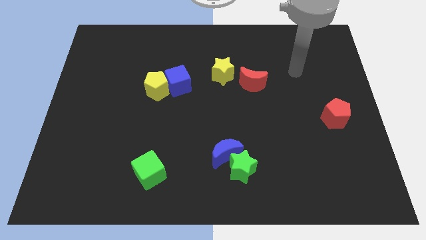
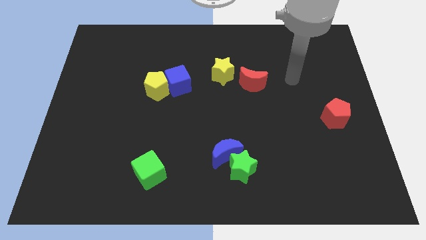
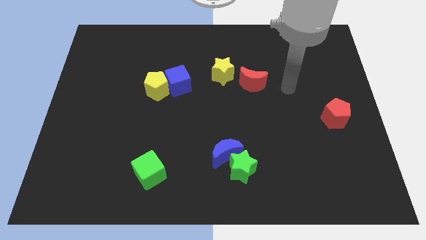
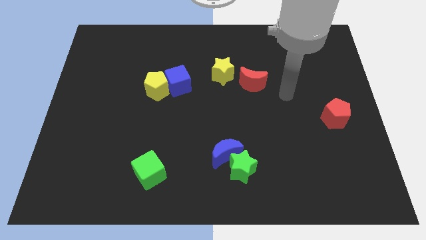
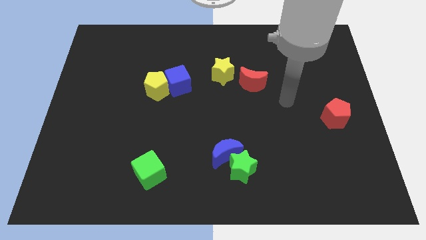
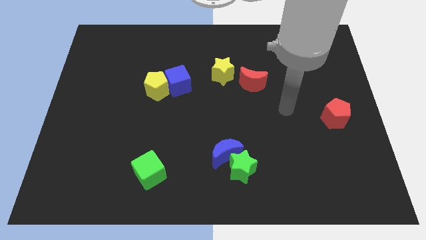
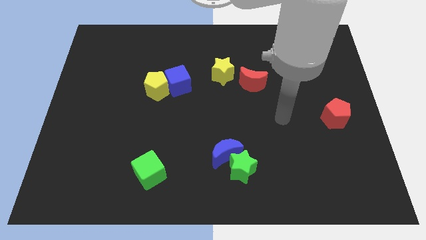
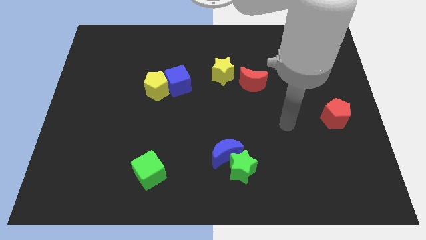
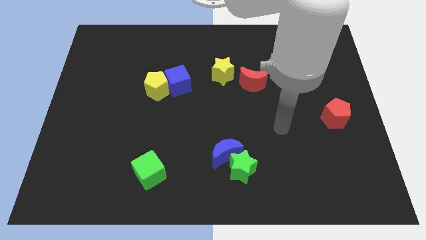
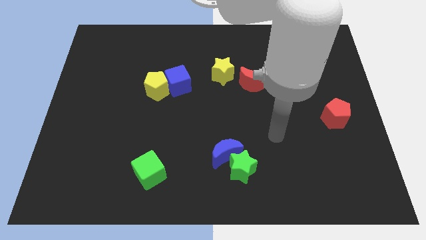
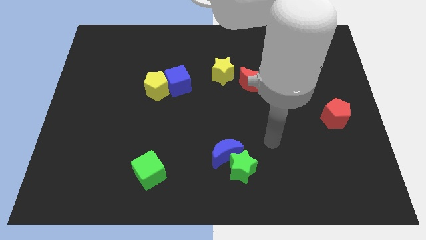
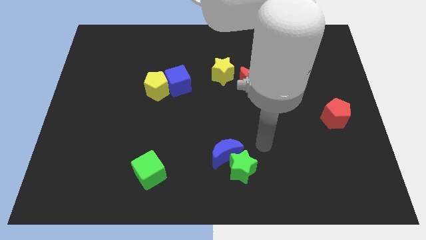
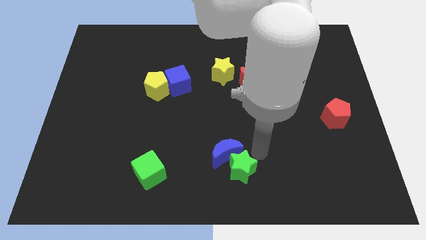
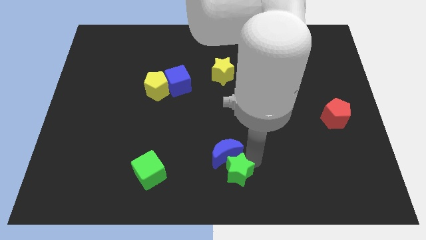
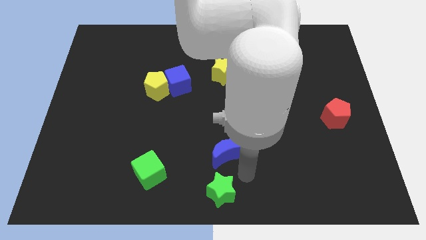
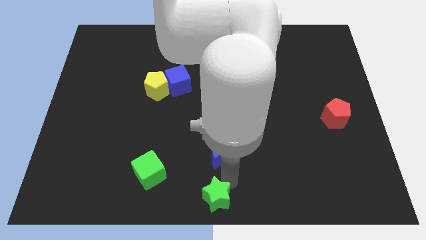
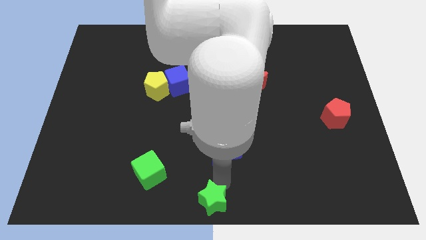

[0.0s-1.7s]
pull the blue moon apart from the green star

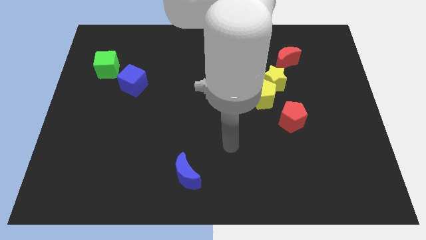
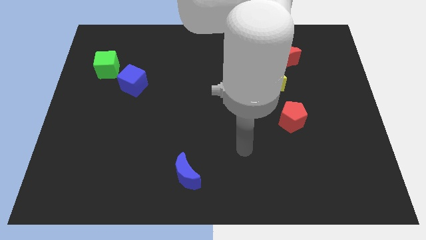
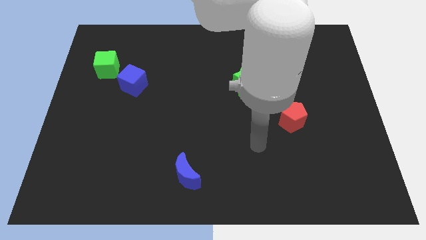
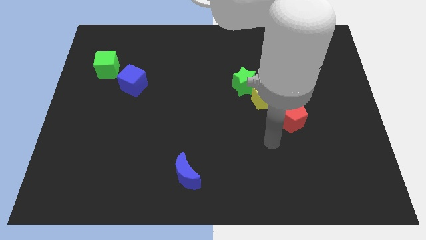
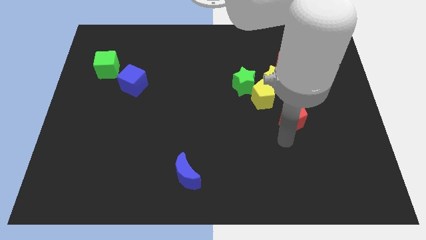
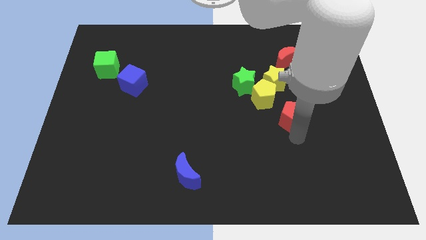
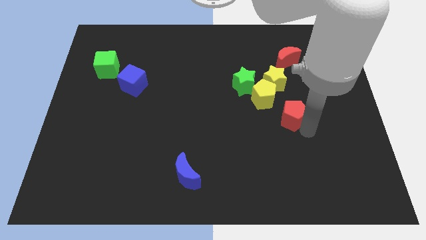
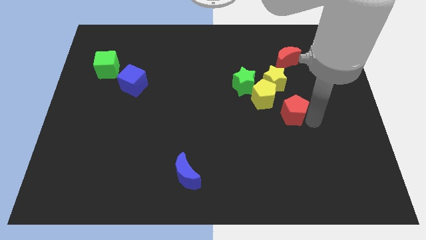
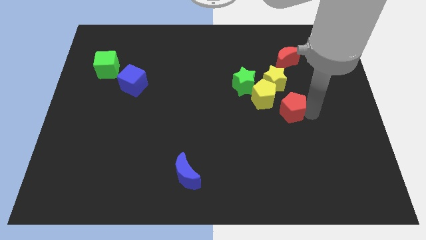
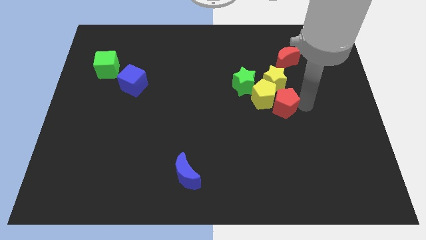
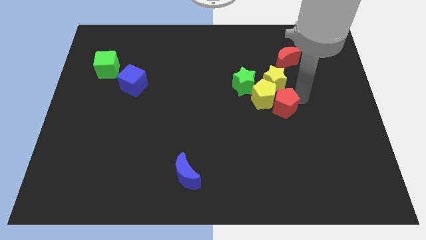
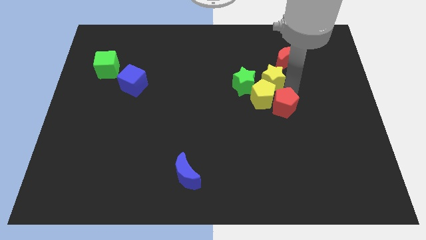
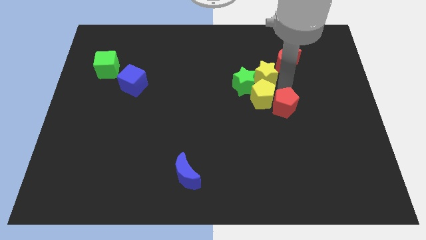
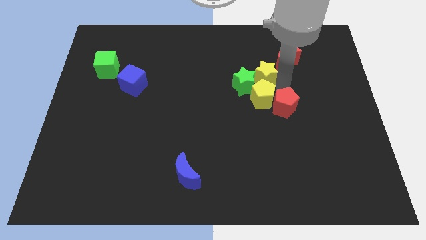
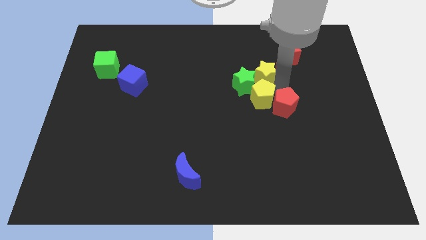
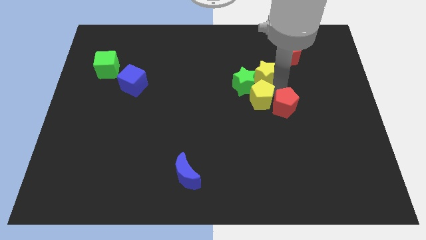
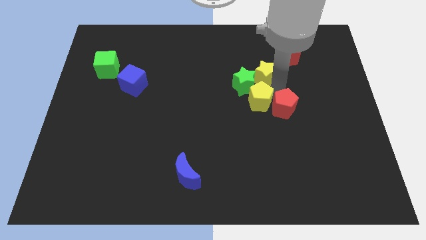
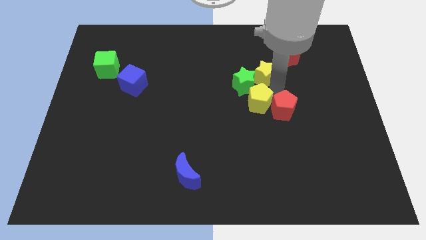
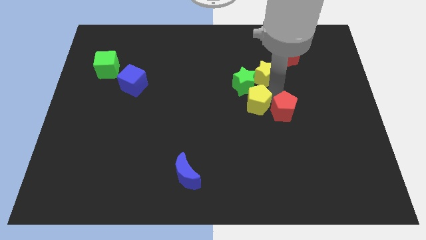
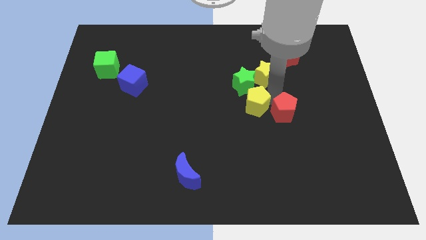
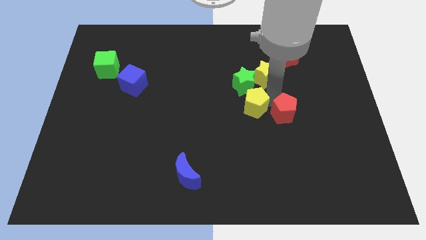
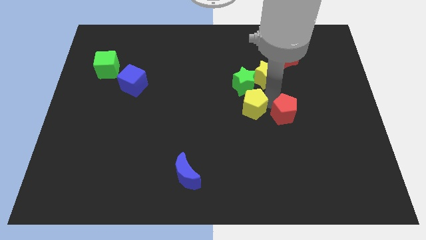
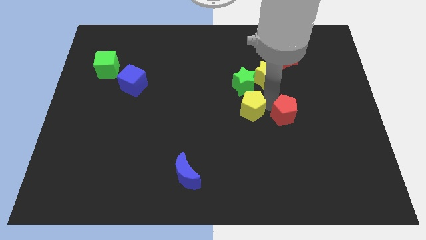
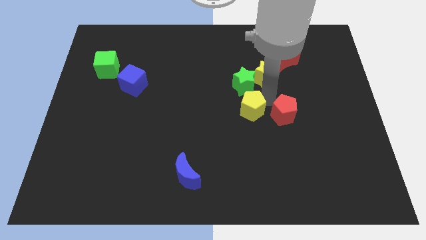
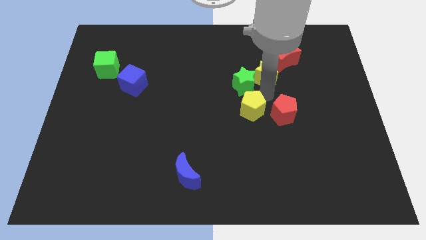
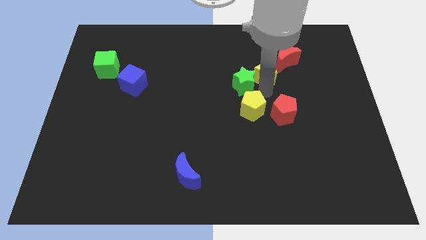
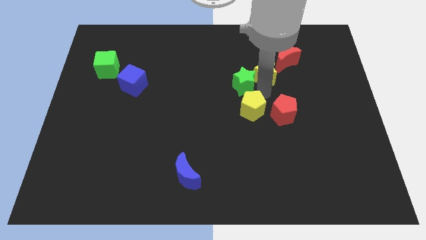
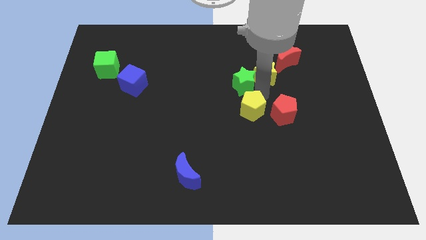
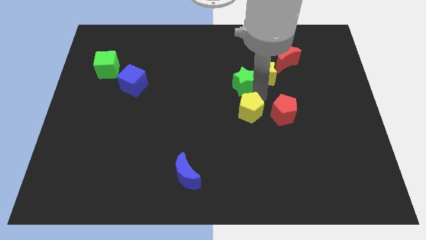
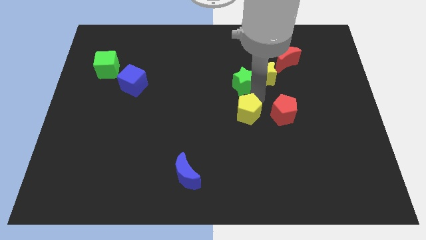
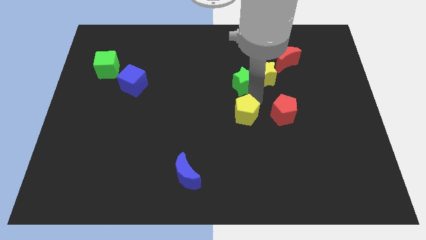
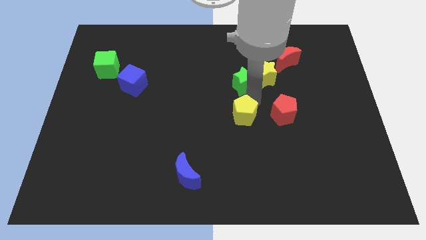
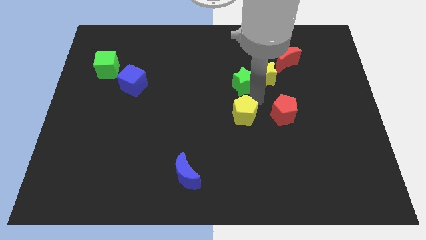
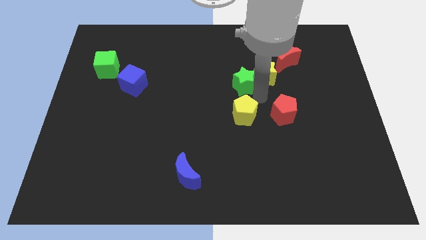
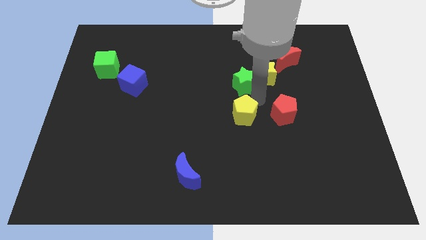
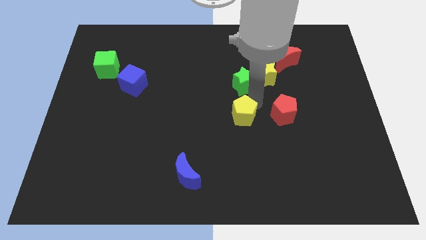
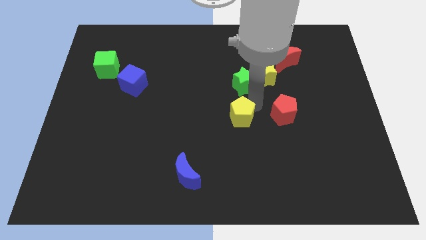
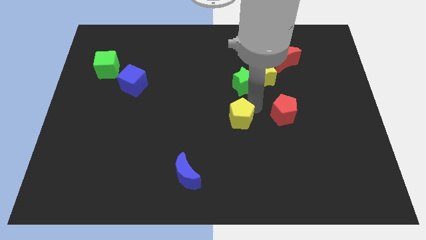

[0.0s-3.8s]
move the yellow pentagon away from the group

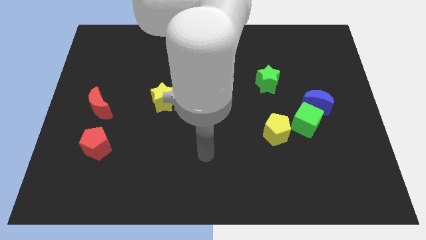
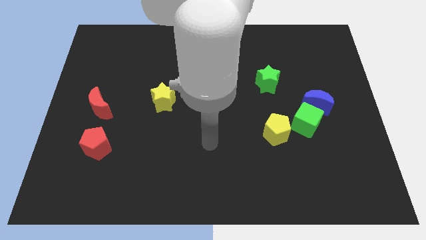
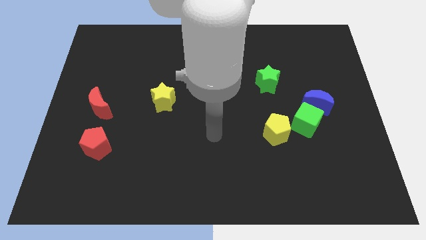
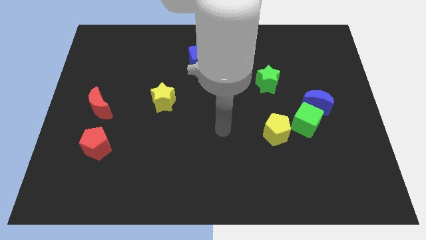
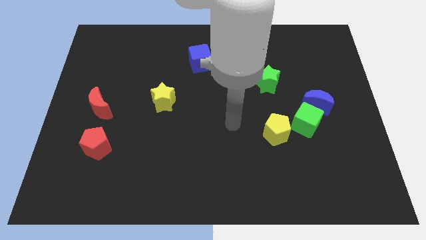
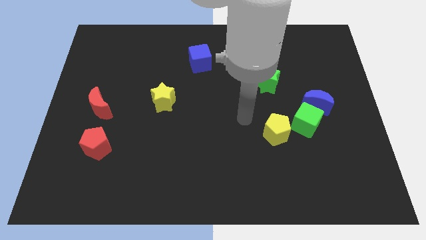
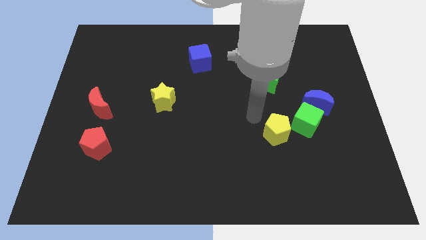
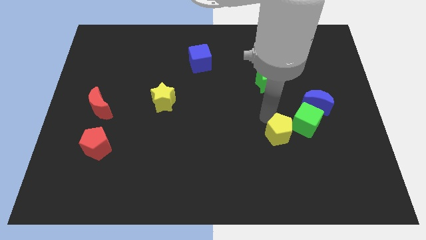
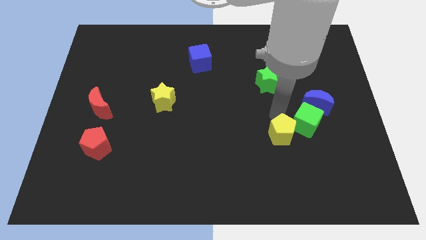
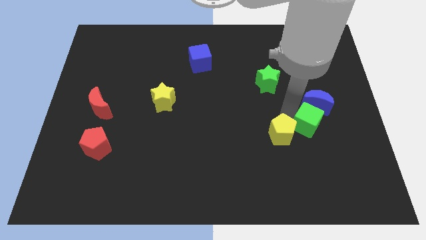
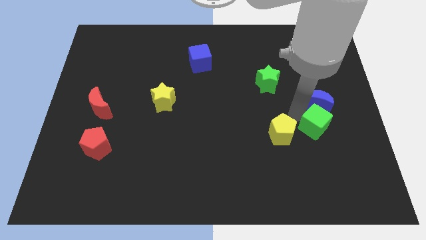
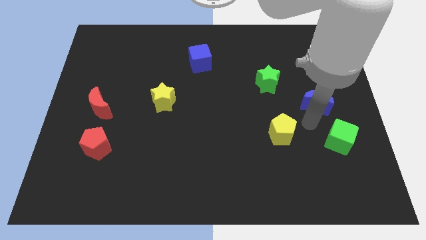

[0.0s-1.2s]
move the blue moon away from the green cube

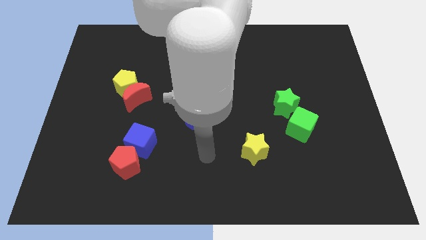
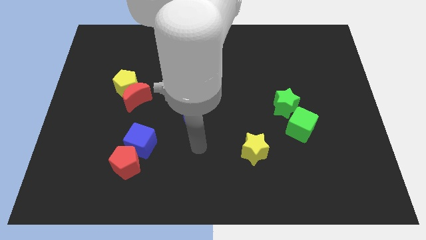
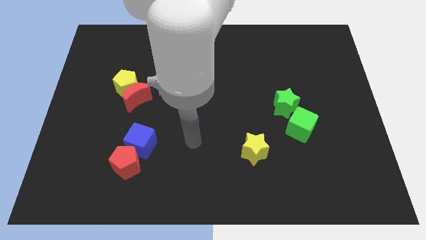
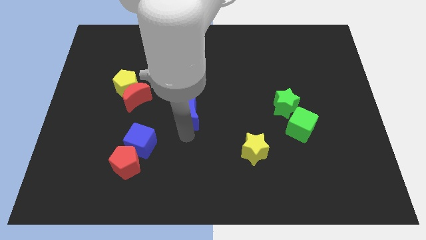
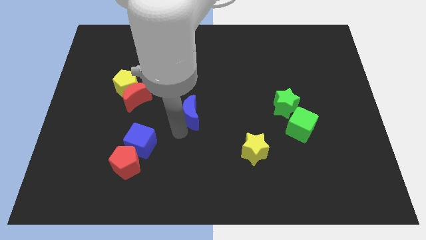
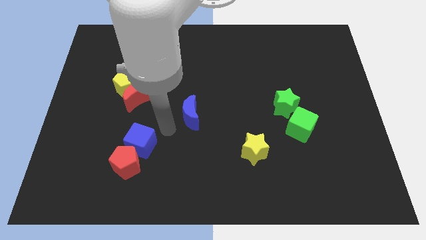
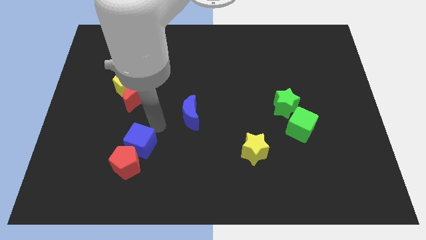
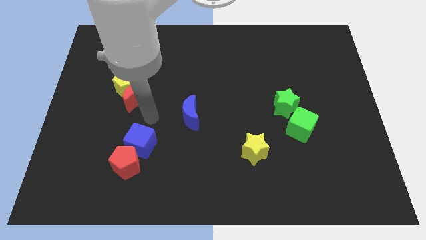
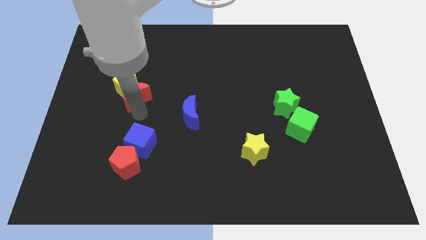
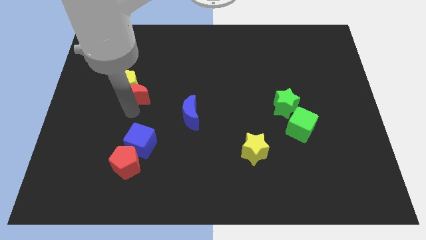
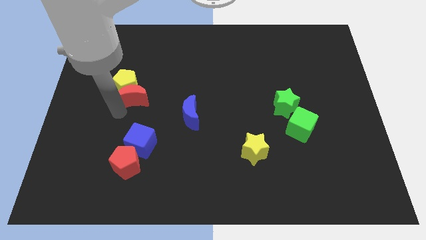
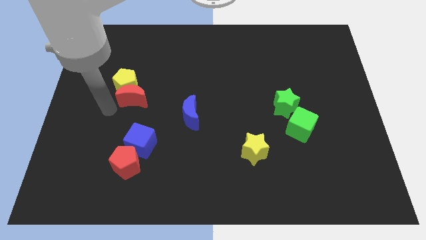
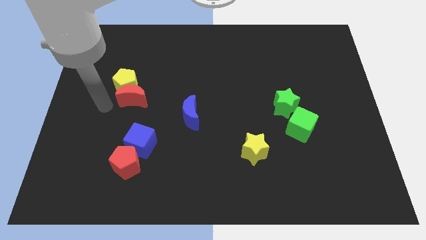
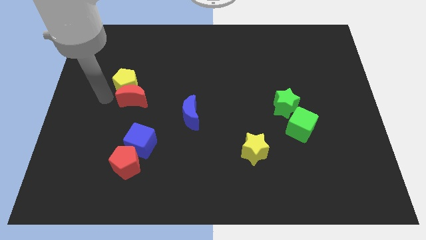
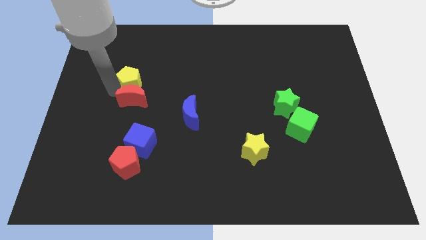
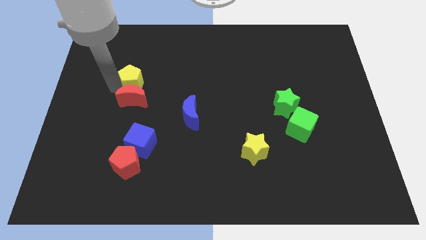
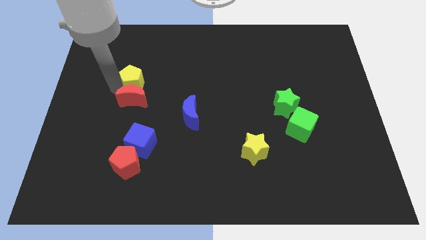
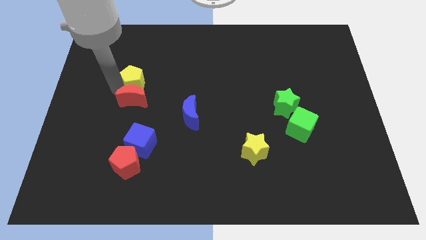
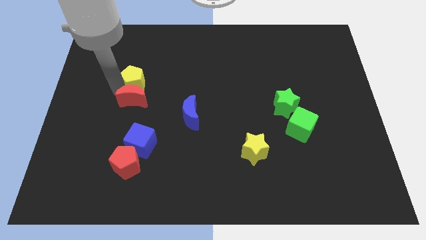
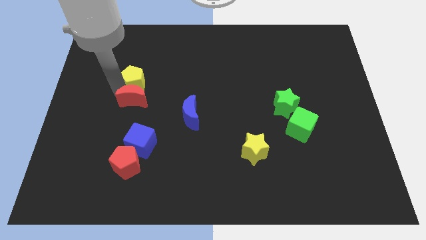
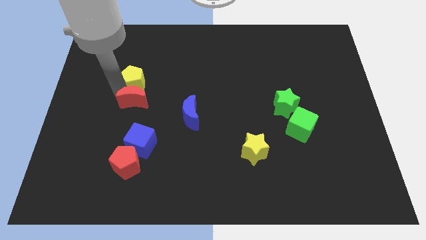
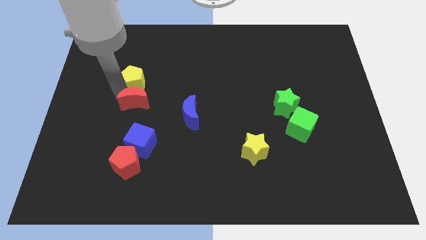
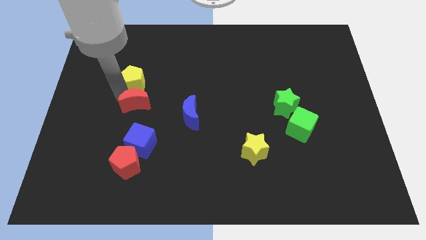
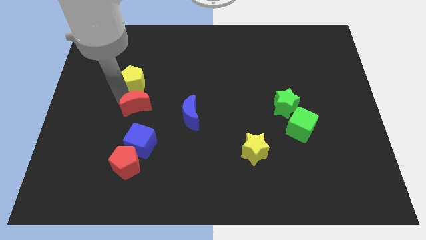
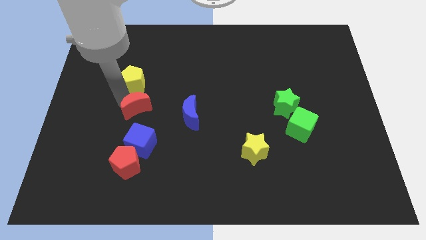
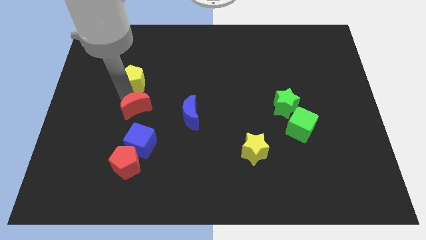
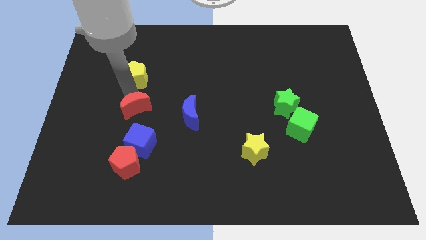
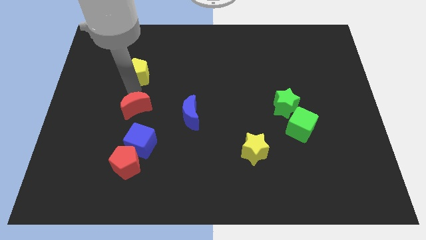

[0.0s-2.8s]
pull the red moon apart from the yellow pentagon
